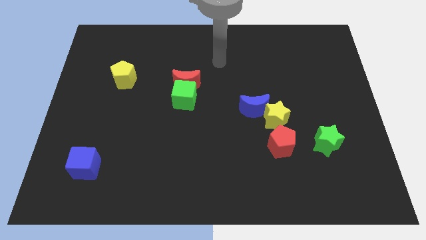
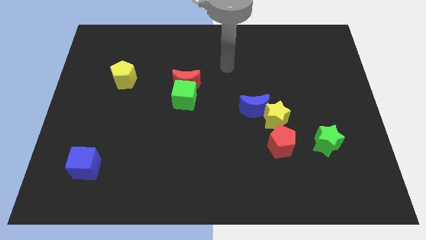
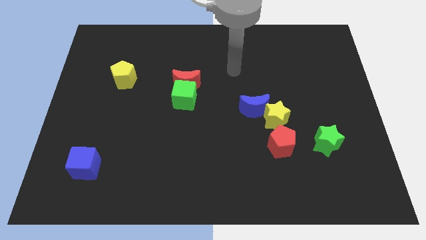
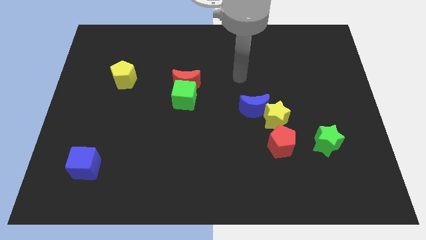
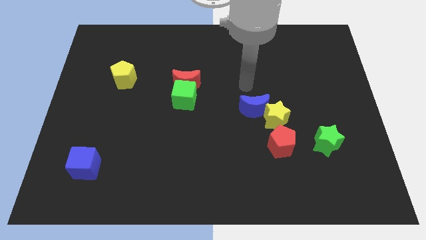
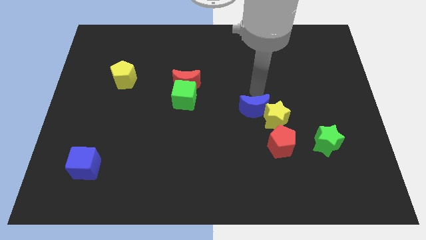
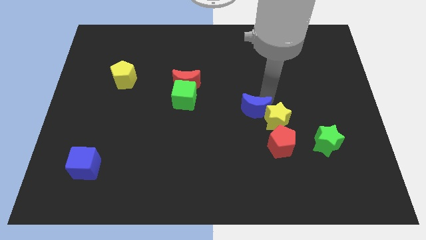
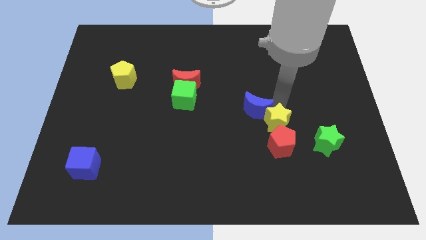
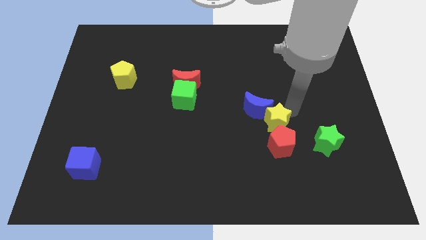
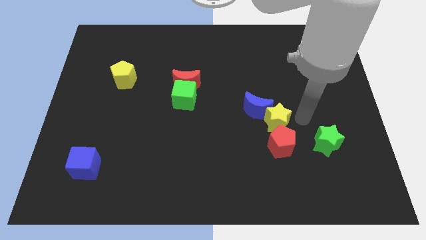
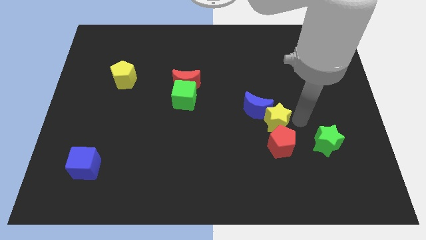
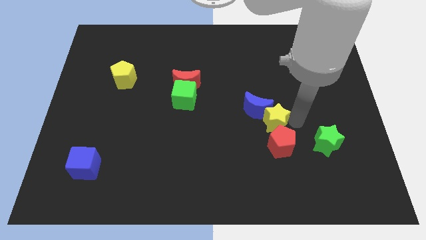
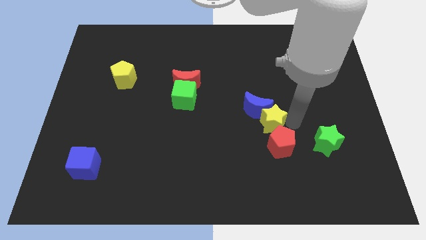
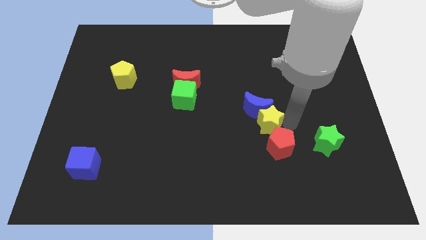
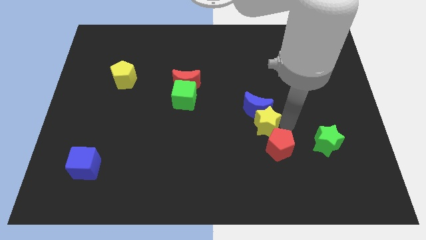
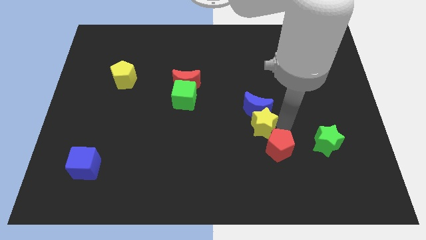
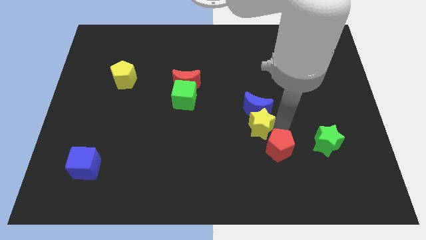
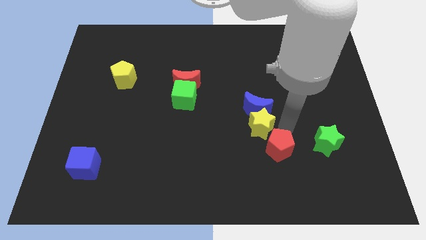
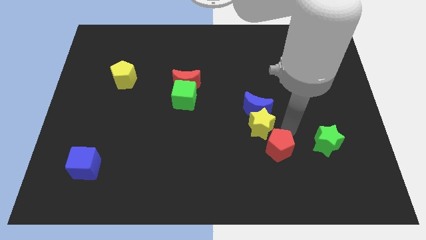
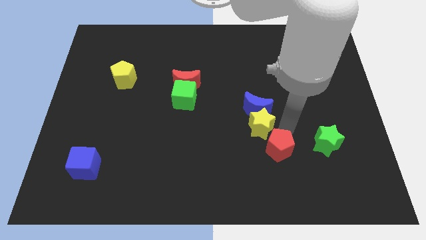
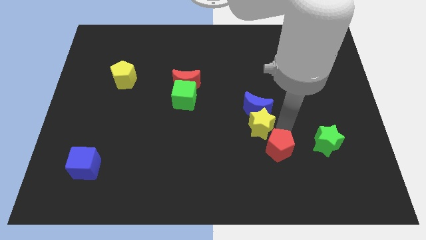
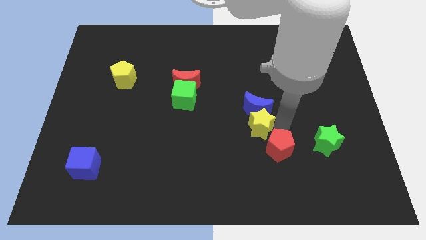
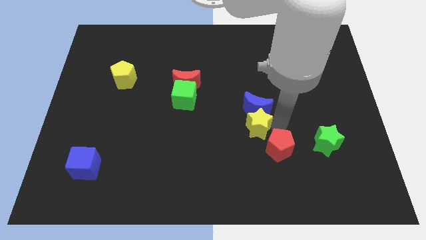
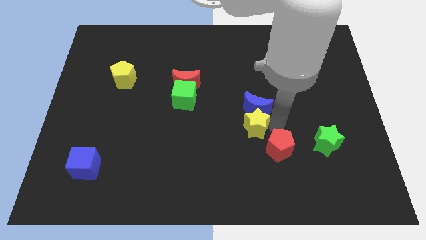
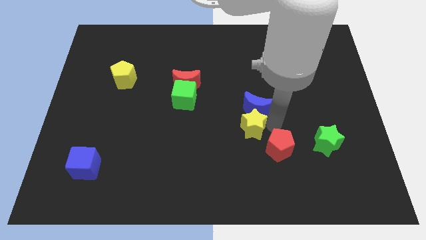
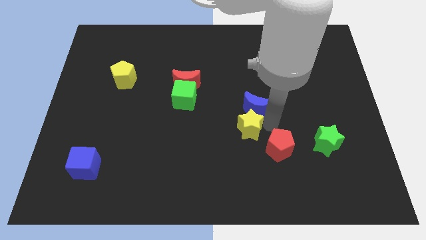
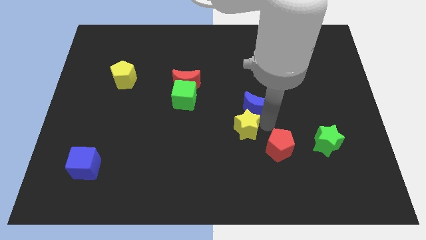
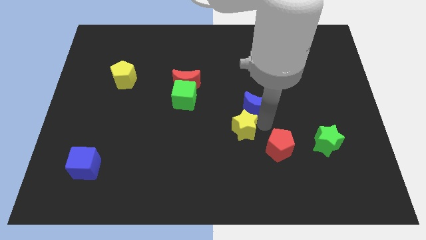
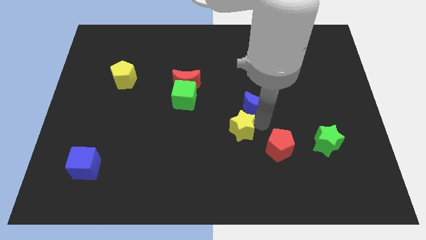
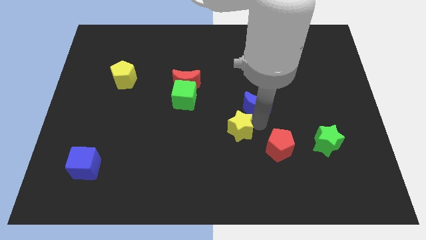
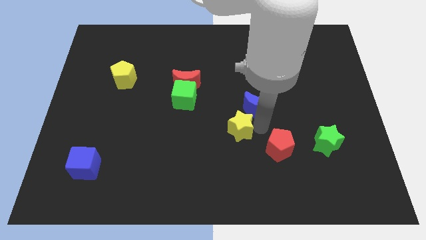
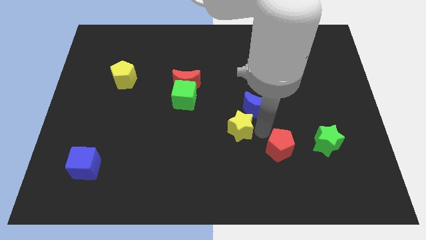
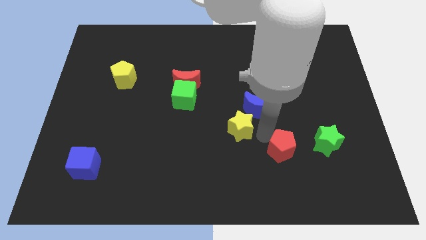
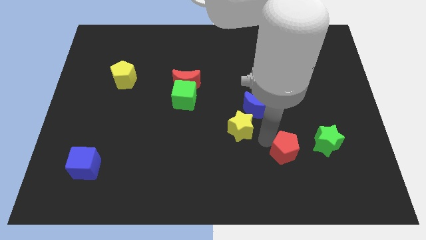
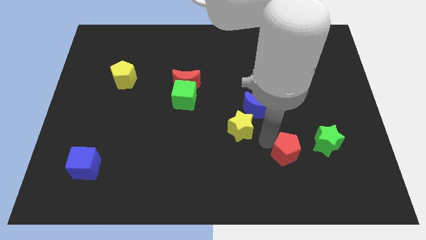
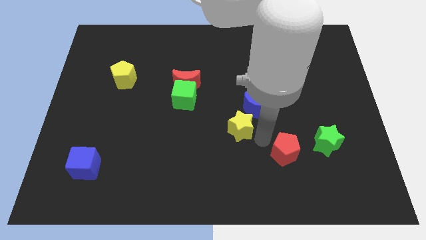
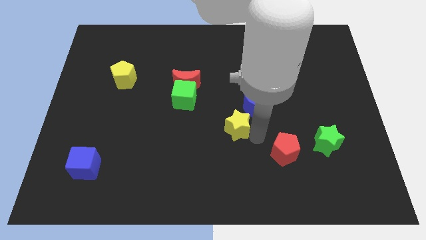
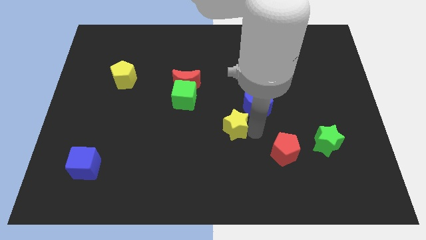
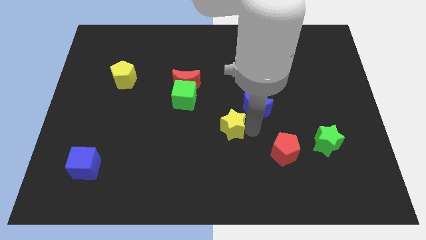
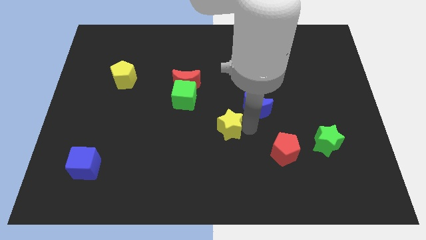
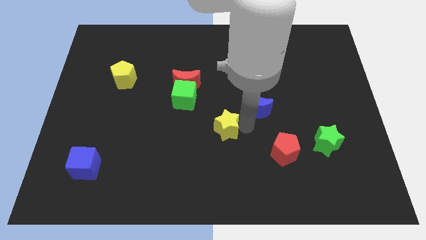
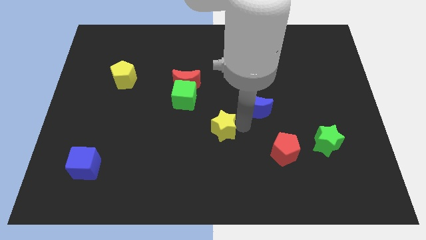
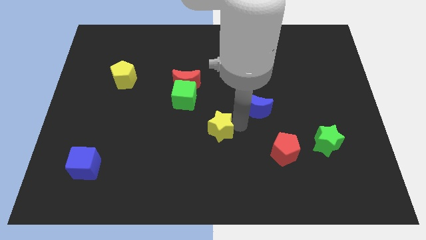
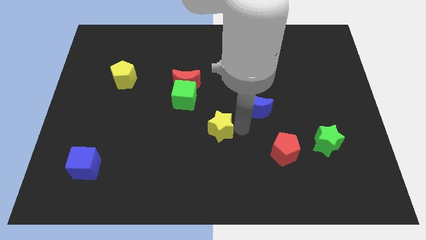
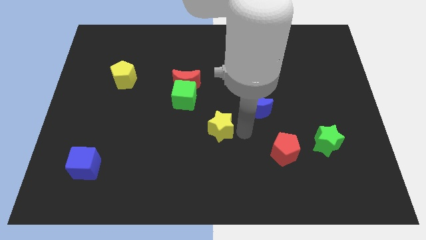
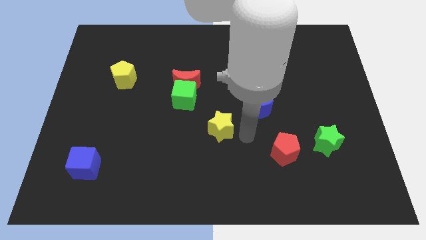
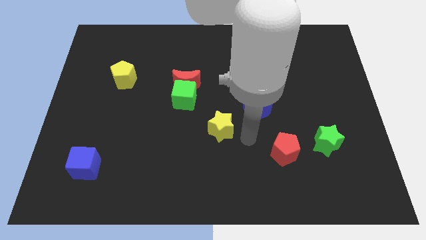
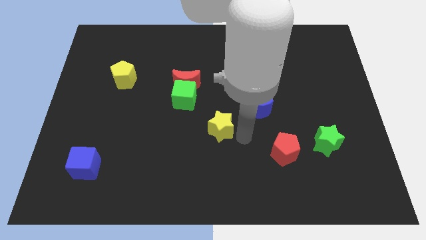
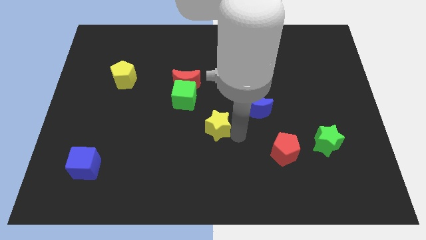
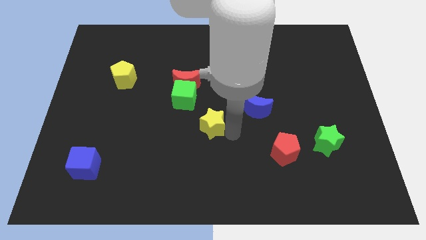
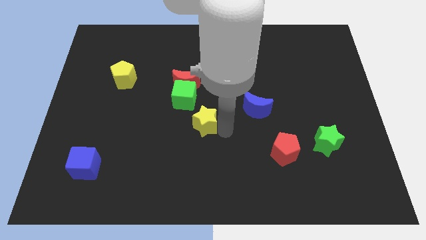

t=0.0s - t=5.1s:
slide the yellow star to the bottom side of the red moon

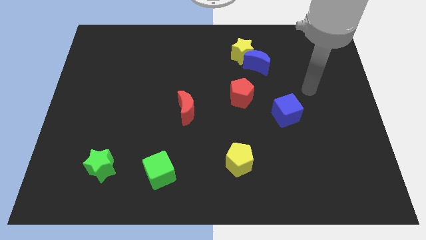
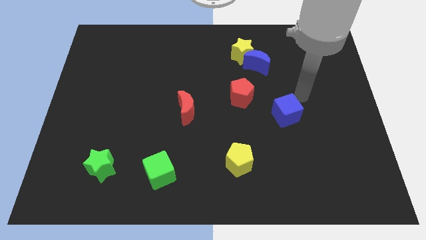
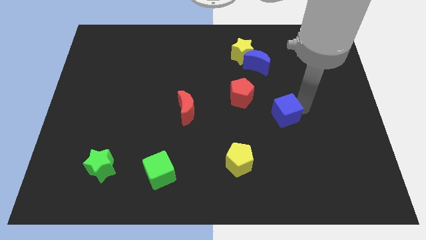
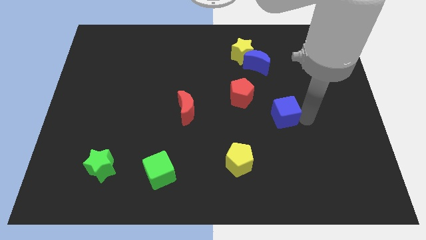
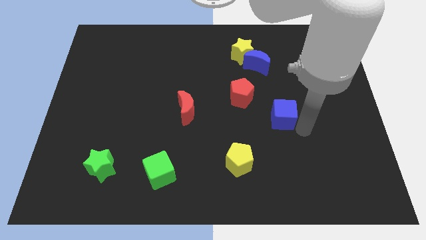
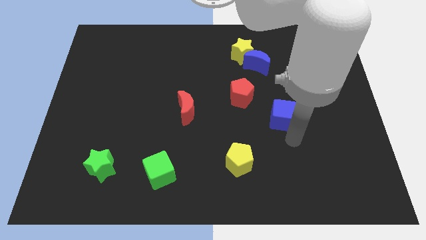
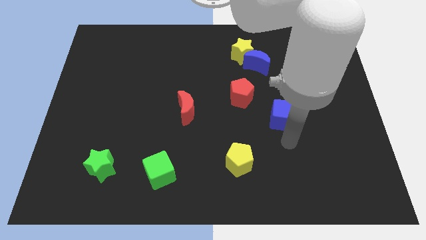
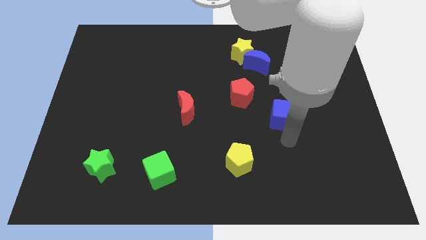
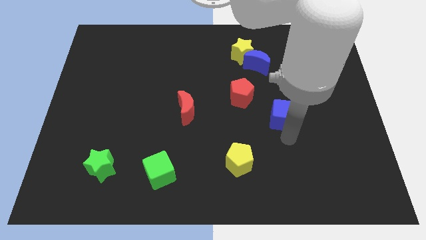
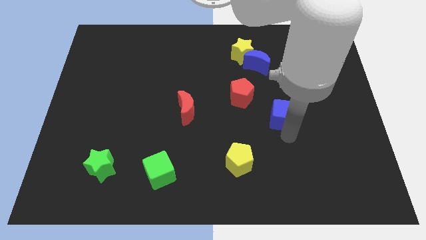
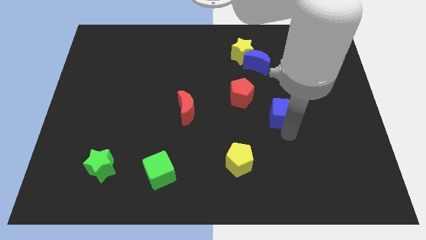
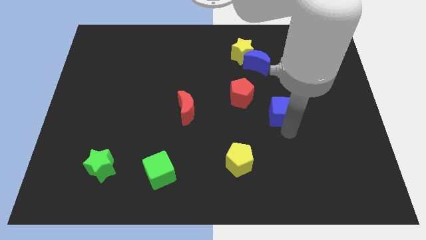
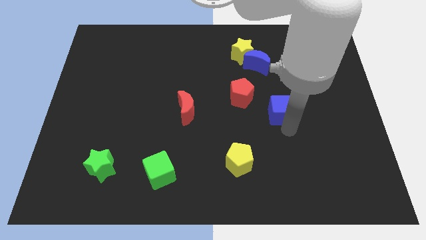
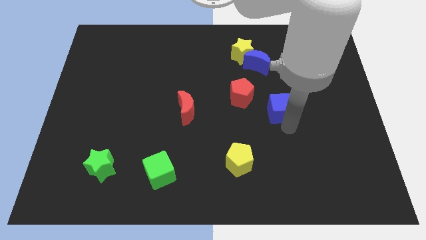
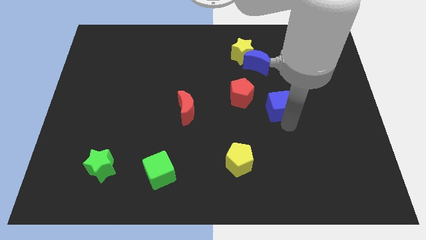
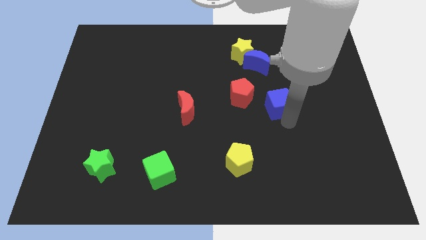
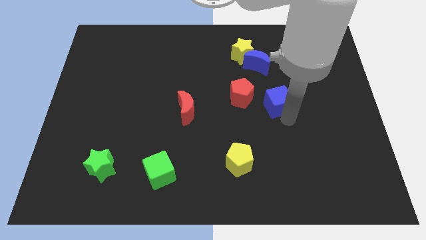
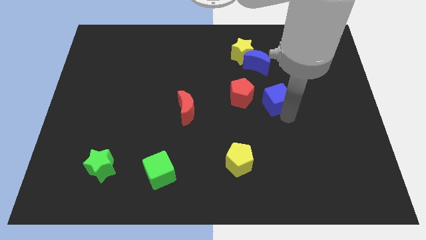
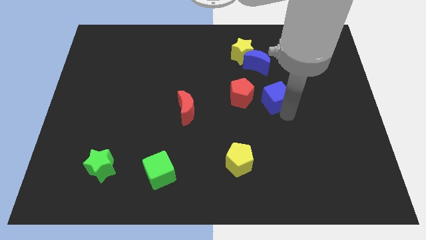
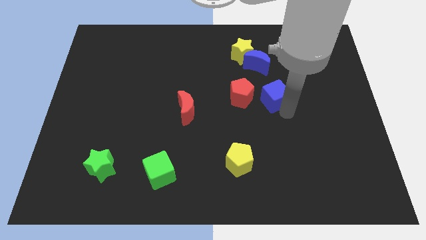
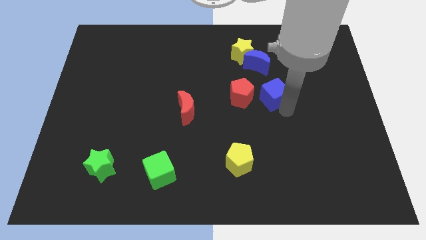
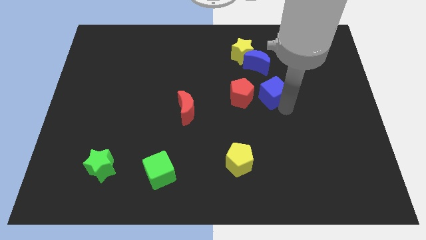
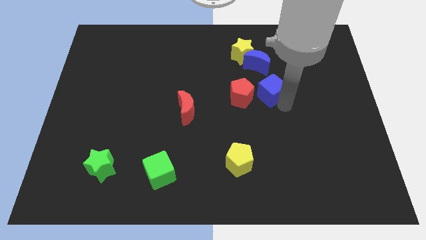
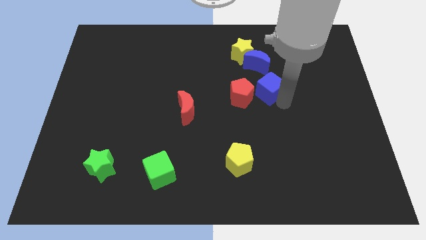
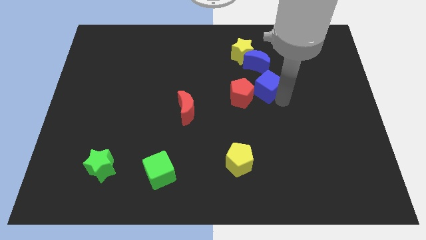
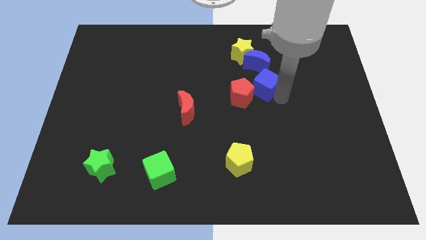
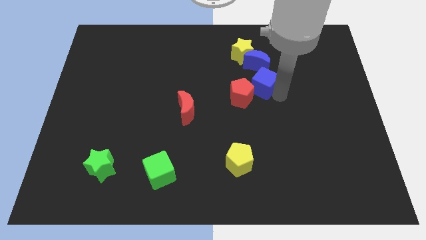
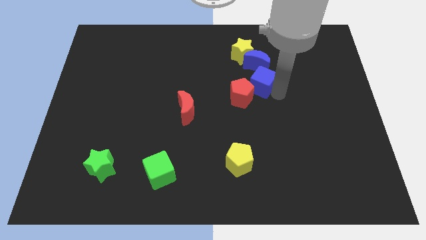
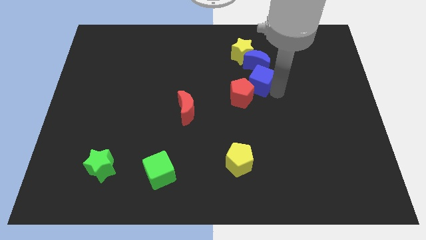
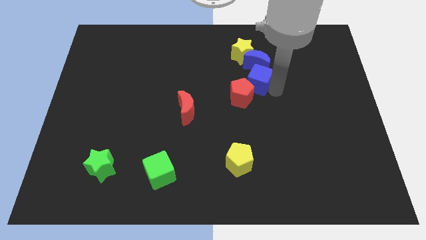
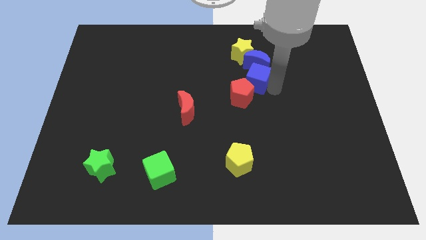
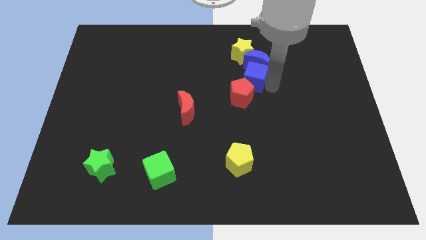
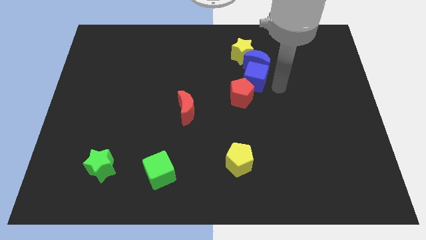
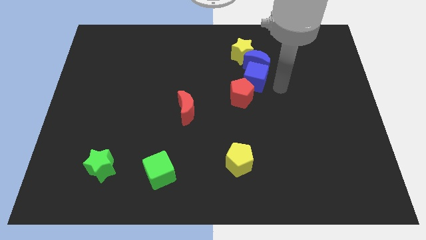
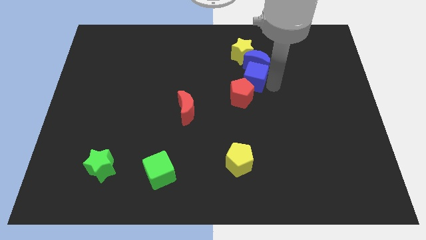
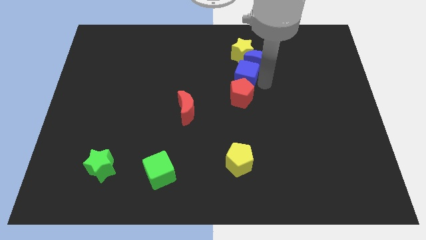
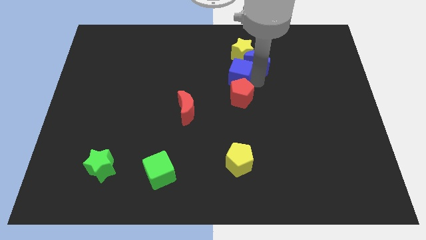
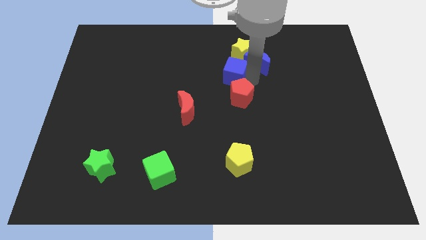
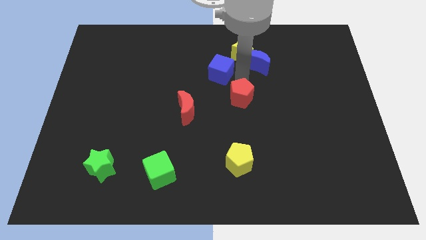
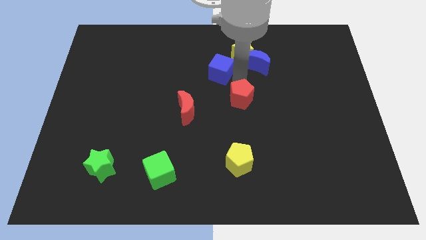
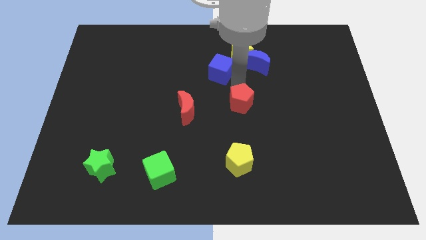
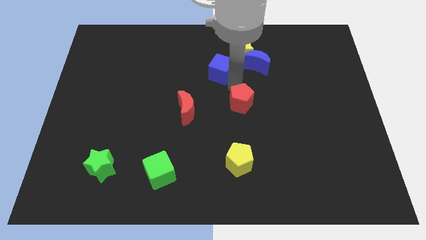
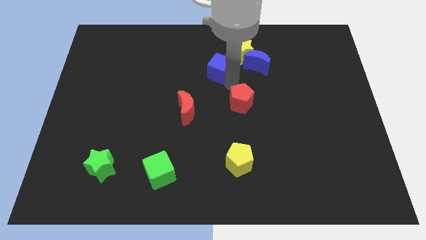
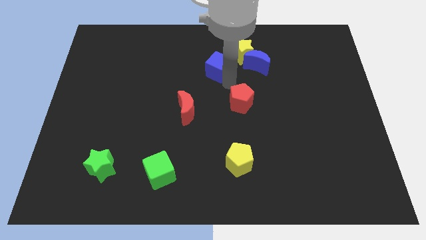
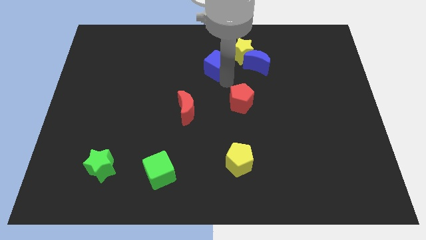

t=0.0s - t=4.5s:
slide the blue cube to the left side of the yellow star
